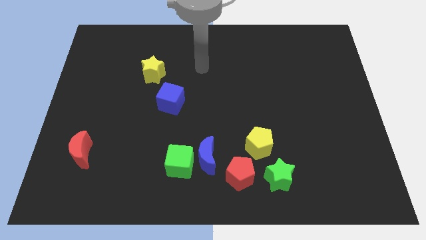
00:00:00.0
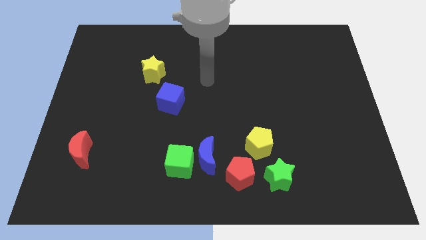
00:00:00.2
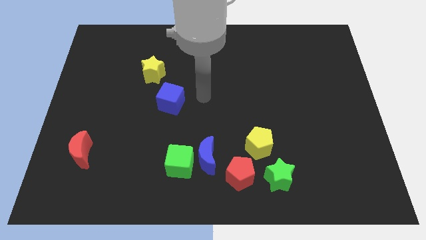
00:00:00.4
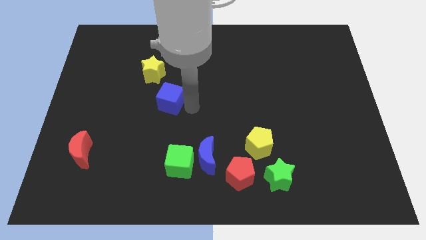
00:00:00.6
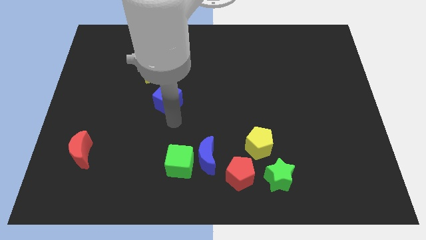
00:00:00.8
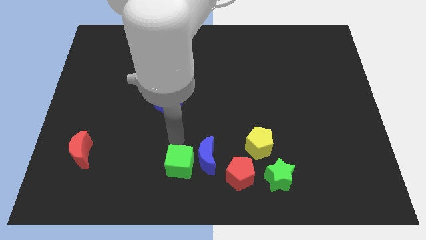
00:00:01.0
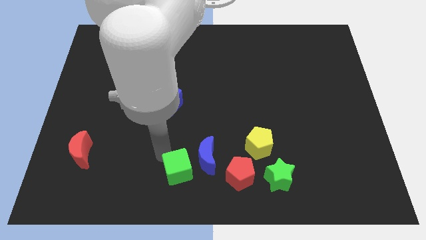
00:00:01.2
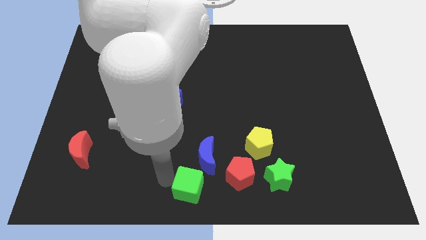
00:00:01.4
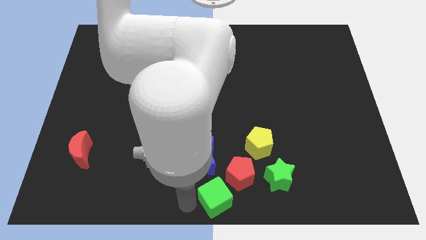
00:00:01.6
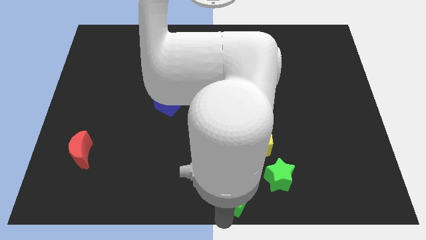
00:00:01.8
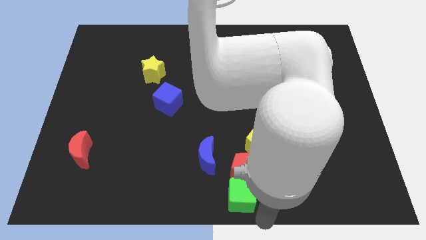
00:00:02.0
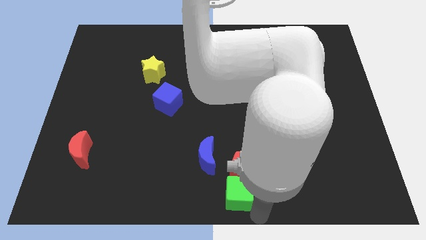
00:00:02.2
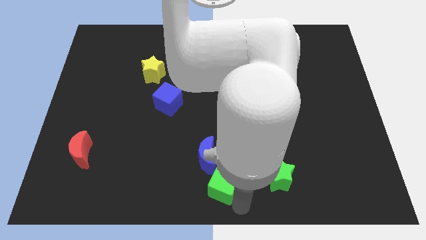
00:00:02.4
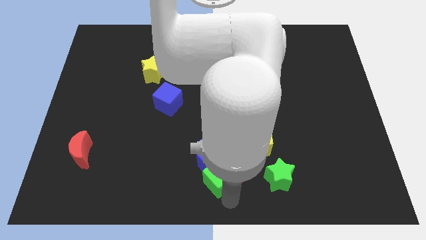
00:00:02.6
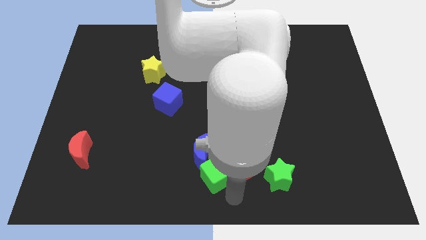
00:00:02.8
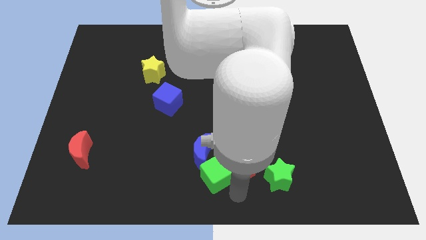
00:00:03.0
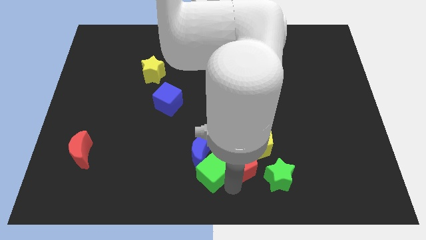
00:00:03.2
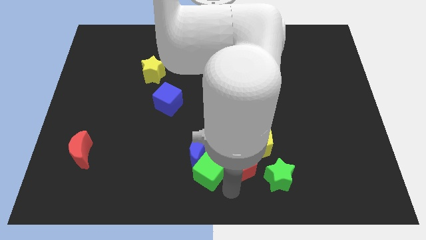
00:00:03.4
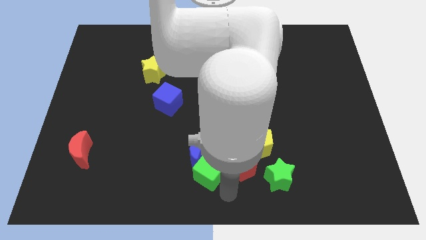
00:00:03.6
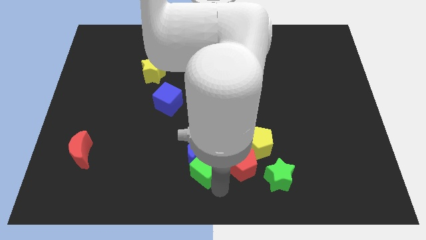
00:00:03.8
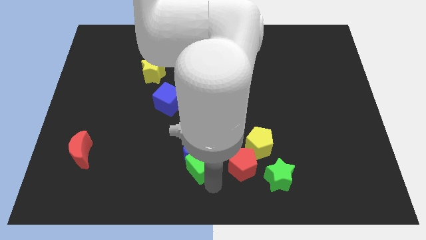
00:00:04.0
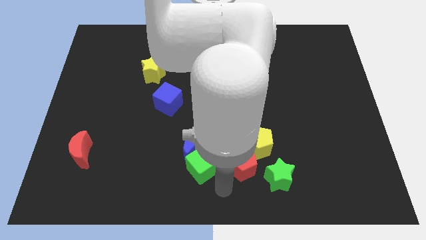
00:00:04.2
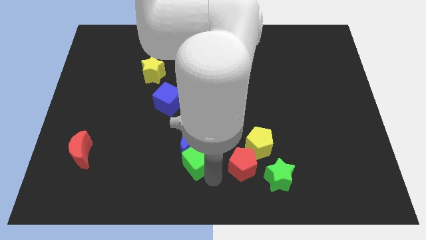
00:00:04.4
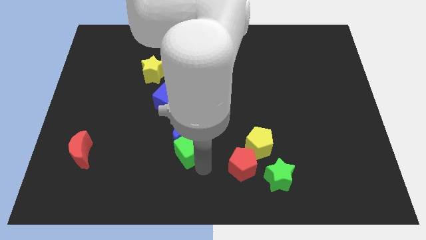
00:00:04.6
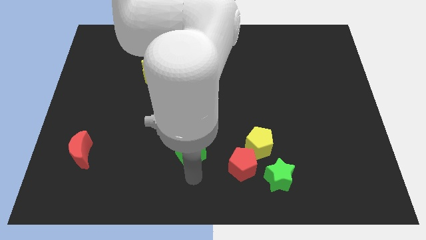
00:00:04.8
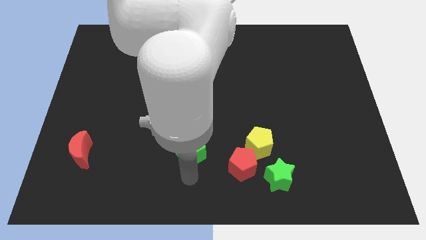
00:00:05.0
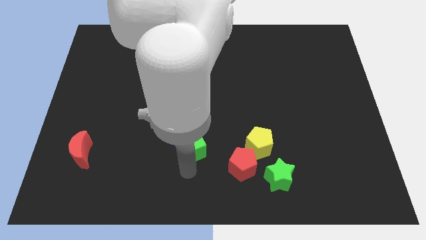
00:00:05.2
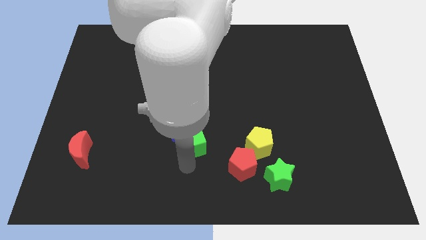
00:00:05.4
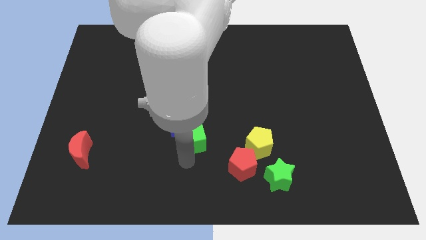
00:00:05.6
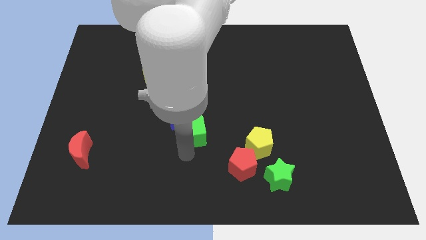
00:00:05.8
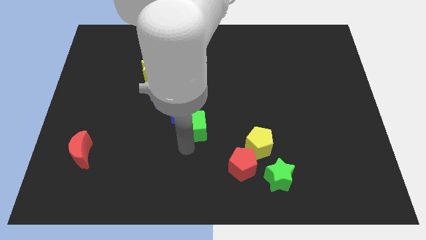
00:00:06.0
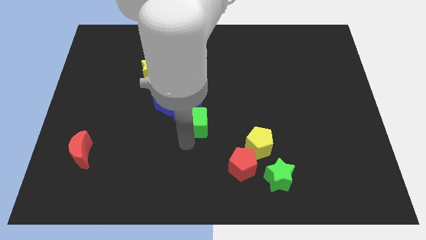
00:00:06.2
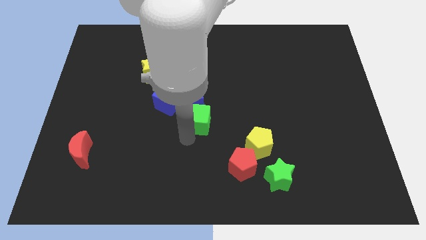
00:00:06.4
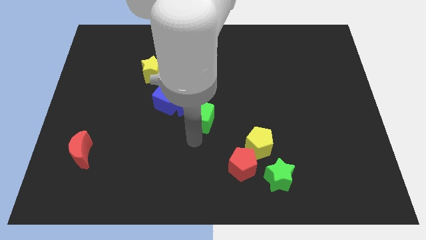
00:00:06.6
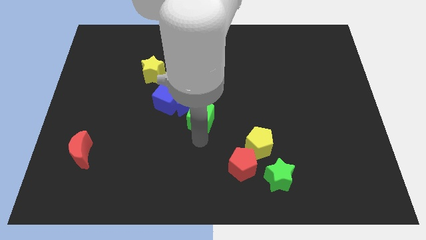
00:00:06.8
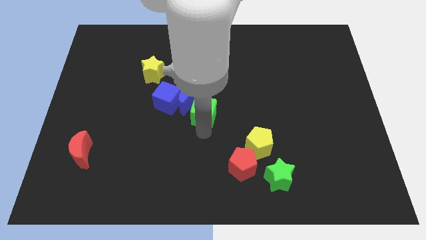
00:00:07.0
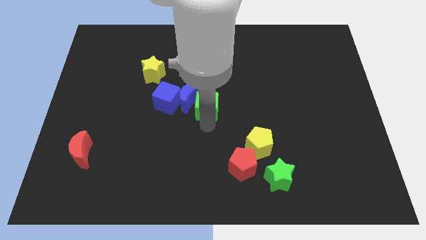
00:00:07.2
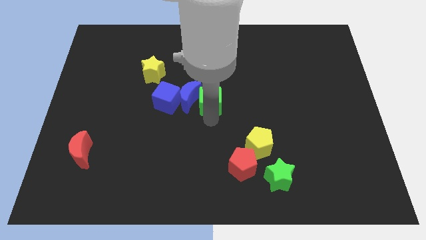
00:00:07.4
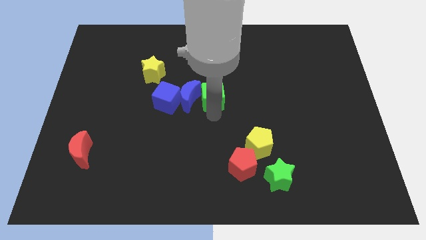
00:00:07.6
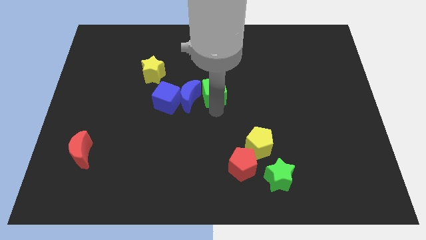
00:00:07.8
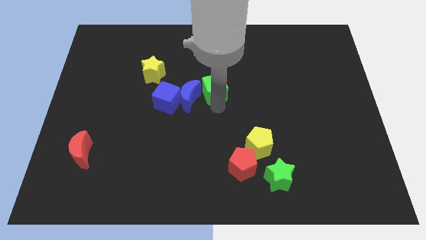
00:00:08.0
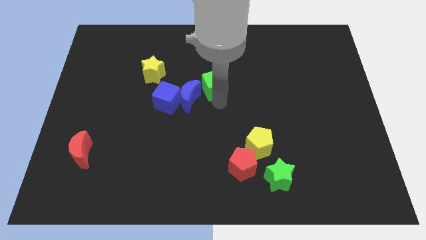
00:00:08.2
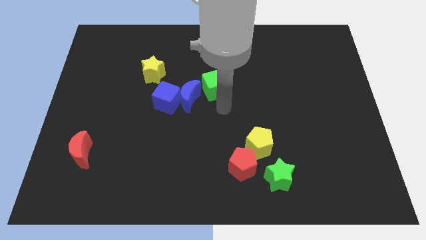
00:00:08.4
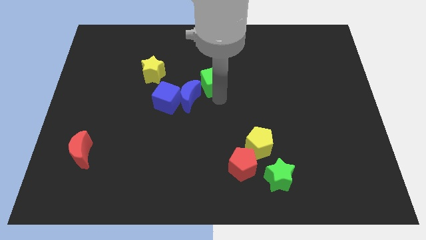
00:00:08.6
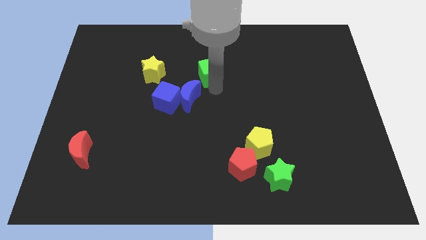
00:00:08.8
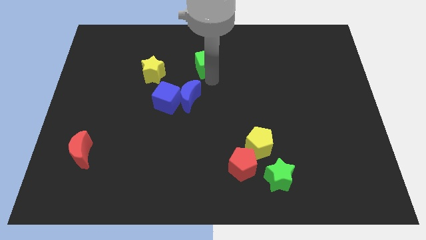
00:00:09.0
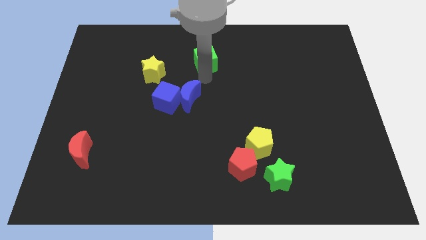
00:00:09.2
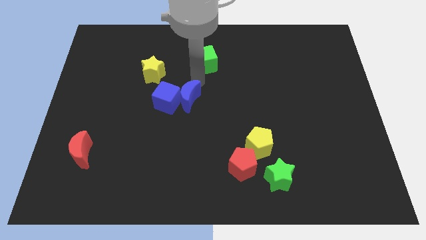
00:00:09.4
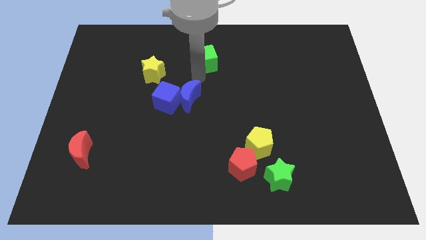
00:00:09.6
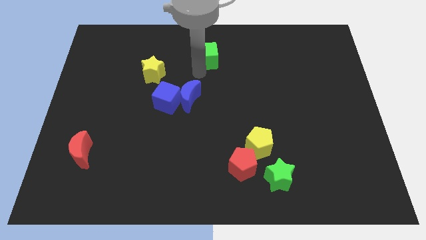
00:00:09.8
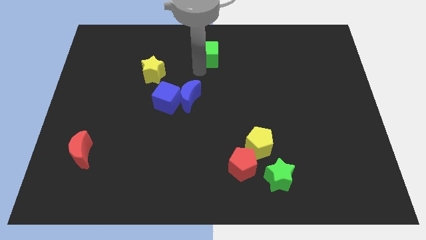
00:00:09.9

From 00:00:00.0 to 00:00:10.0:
push the green cube to the top

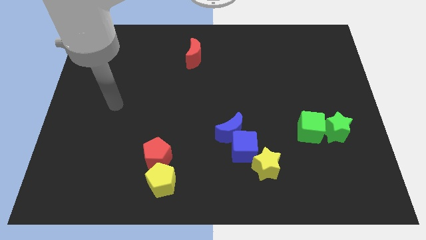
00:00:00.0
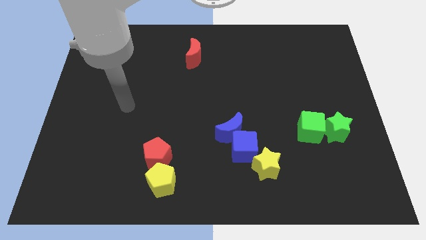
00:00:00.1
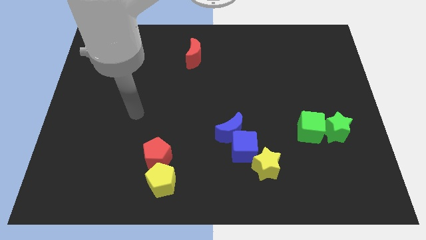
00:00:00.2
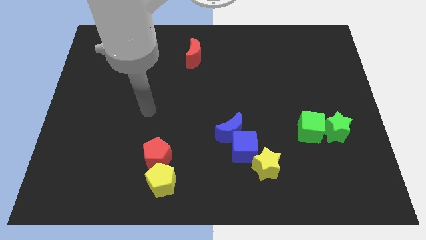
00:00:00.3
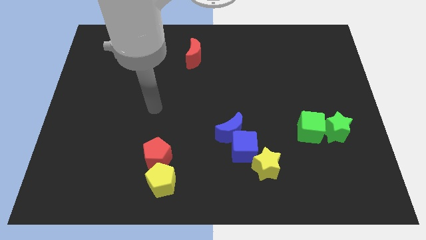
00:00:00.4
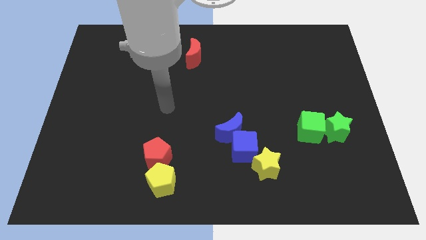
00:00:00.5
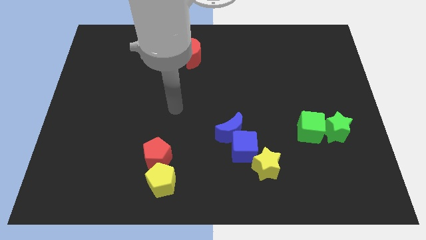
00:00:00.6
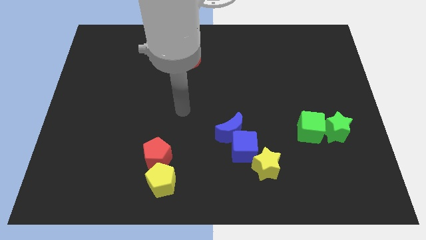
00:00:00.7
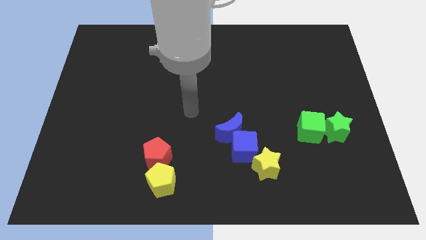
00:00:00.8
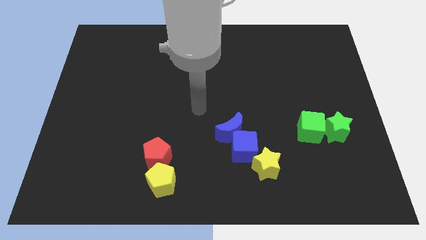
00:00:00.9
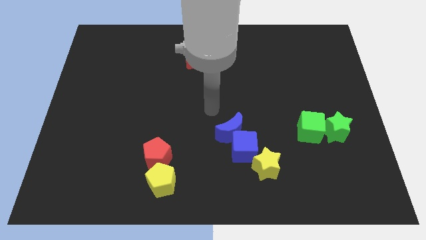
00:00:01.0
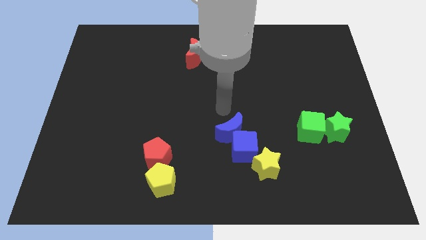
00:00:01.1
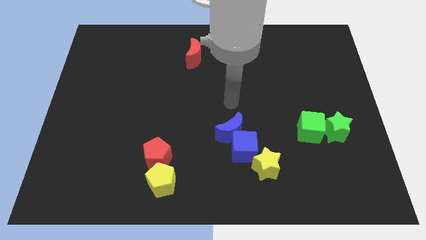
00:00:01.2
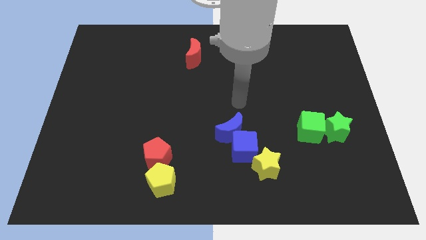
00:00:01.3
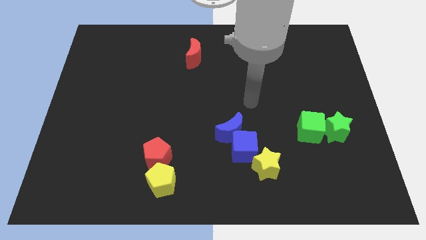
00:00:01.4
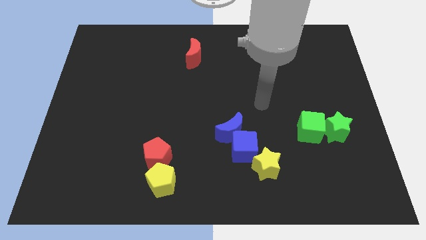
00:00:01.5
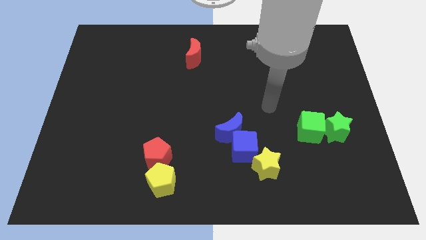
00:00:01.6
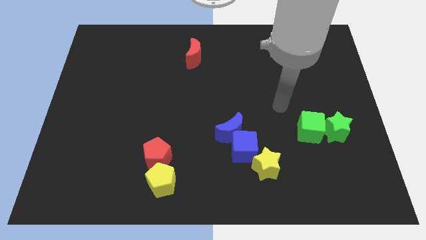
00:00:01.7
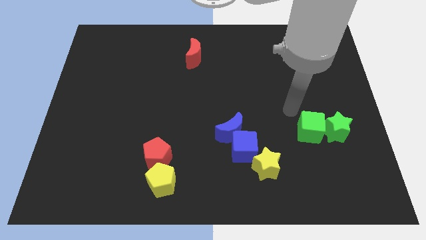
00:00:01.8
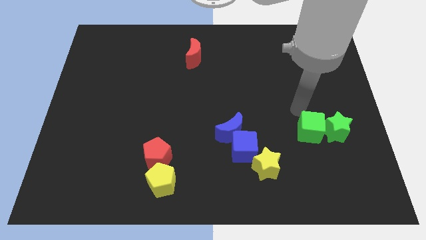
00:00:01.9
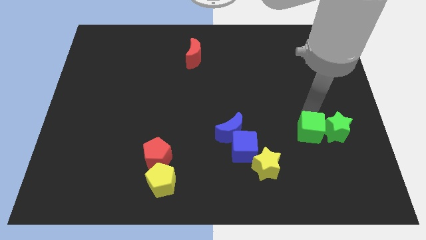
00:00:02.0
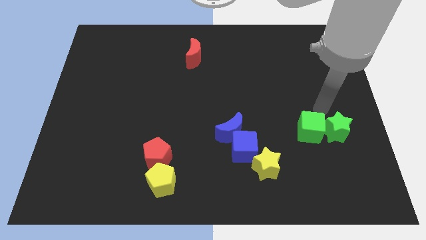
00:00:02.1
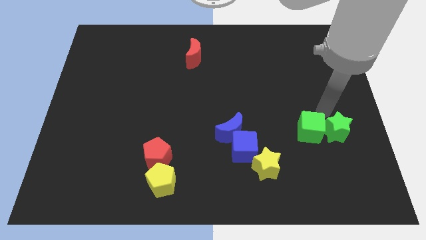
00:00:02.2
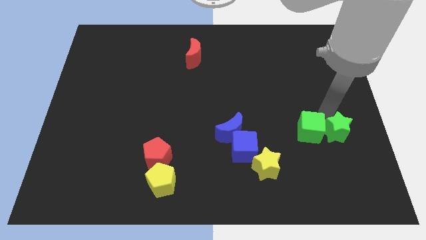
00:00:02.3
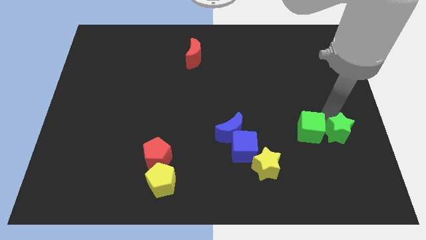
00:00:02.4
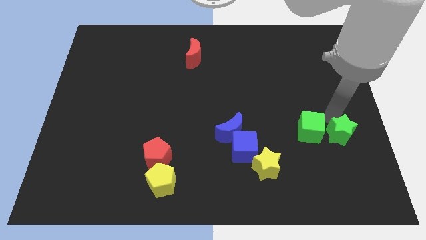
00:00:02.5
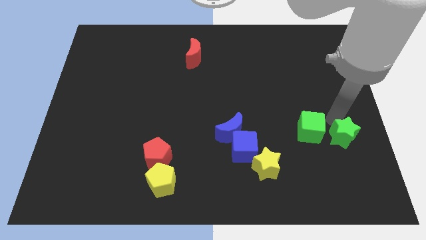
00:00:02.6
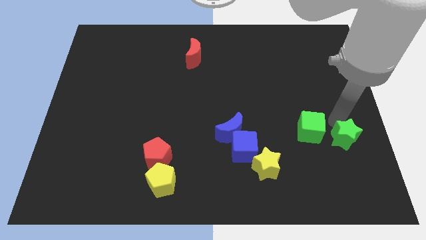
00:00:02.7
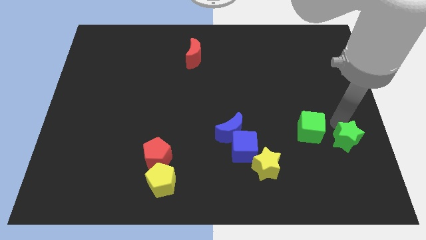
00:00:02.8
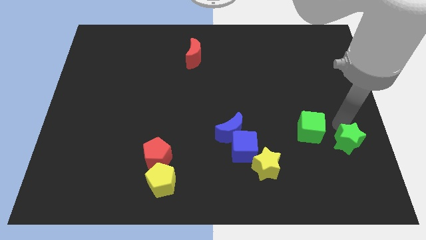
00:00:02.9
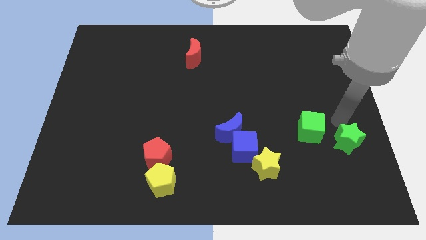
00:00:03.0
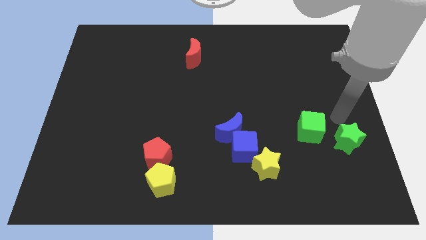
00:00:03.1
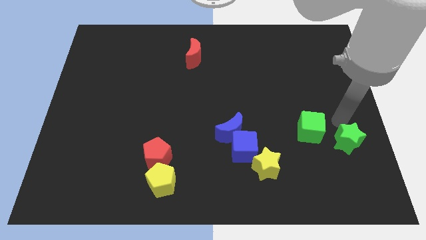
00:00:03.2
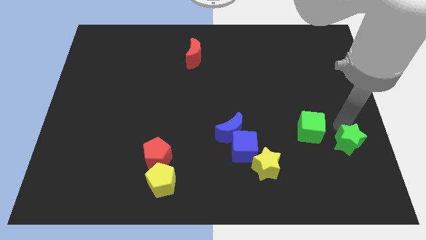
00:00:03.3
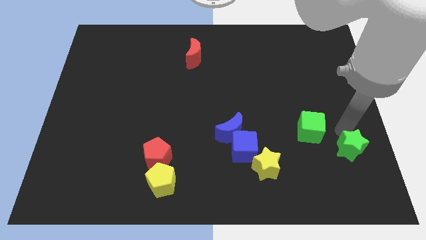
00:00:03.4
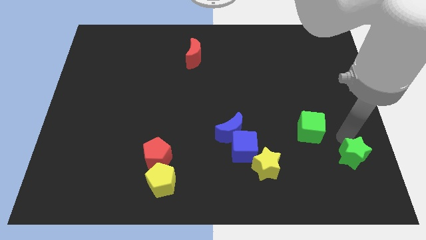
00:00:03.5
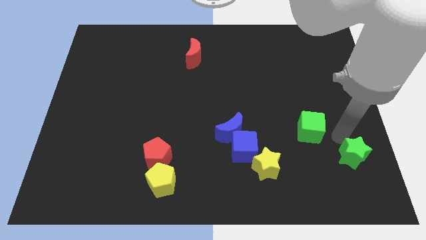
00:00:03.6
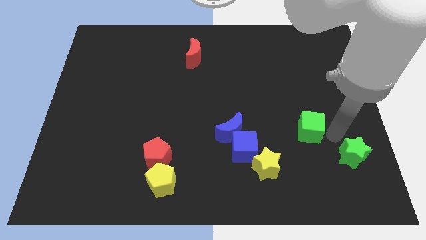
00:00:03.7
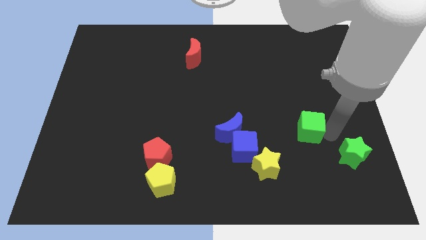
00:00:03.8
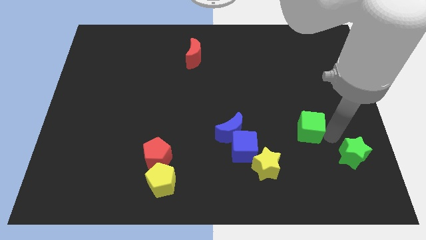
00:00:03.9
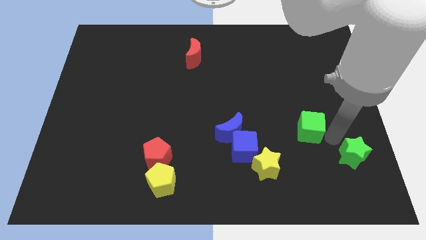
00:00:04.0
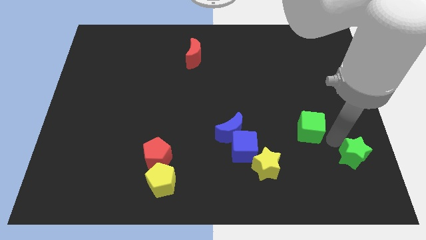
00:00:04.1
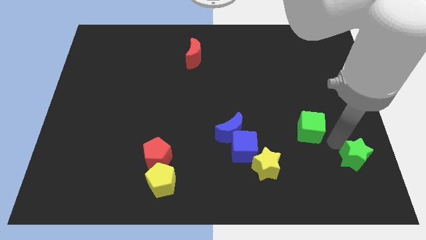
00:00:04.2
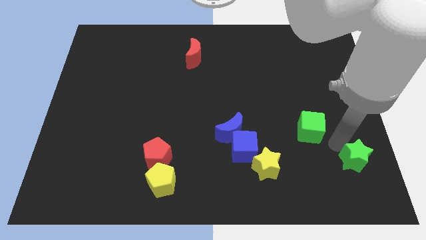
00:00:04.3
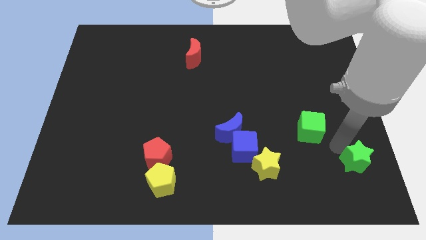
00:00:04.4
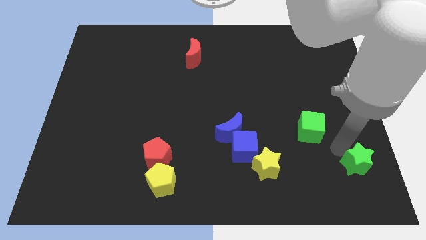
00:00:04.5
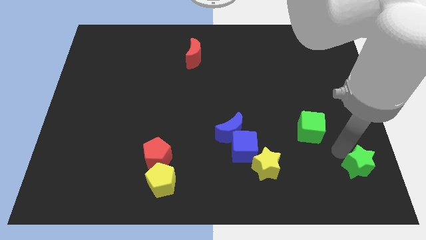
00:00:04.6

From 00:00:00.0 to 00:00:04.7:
push the green star to the lower right corner
